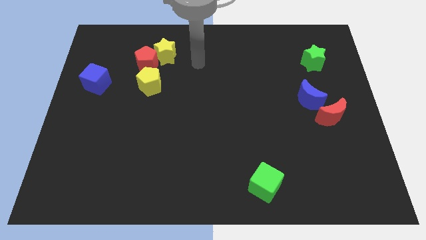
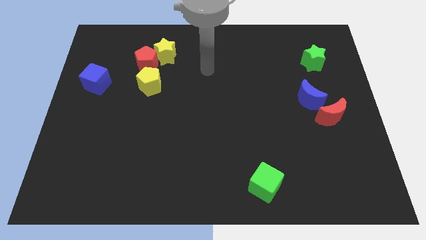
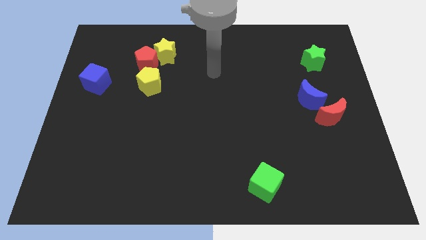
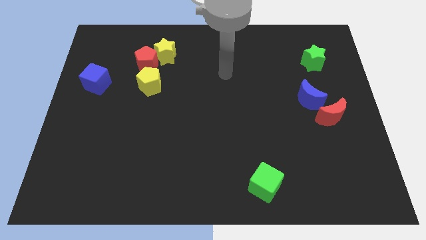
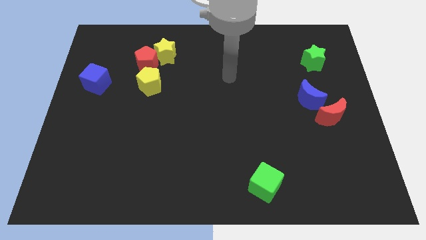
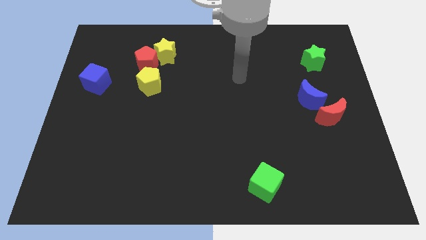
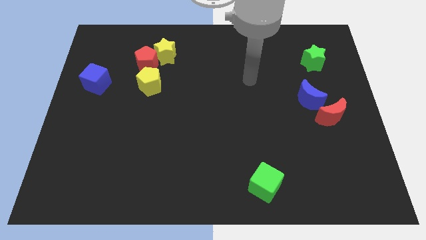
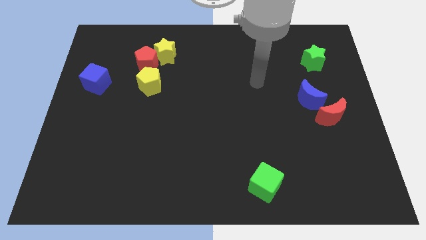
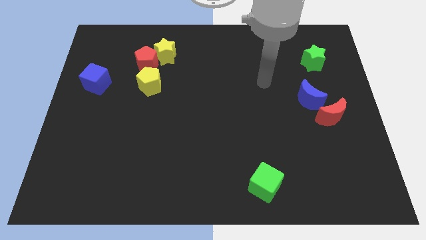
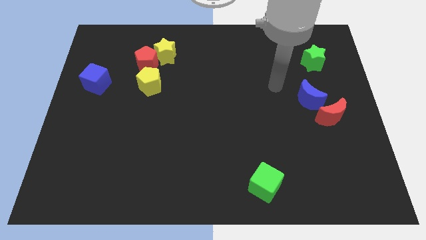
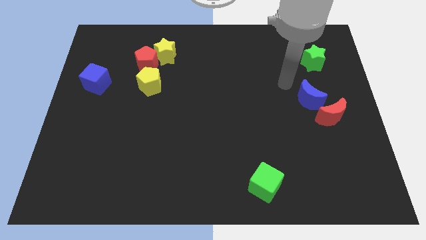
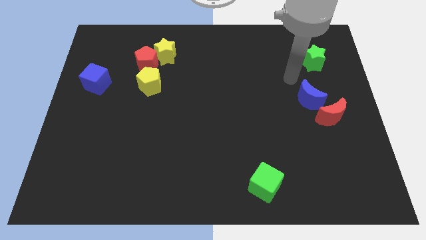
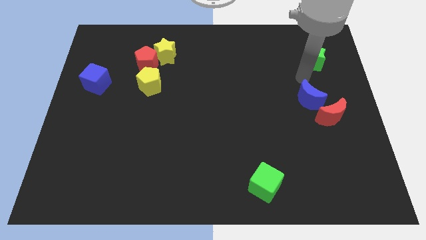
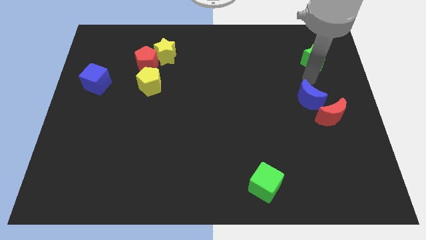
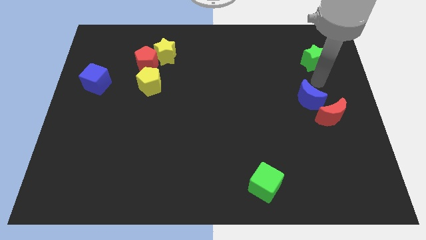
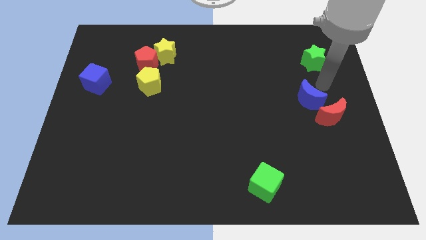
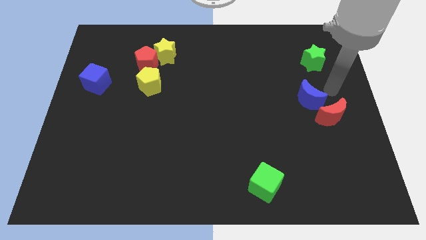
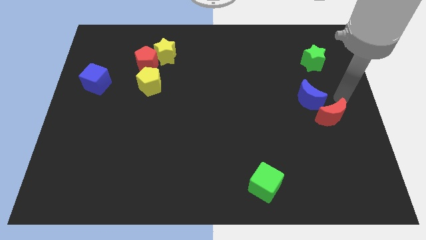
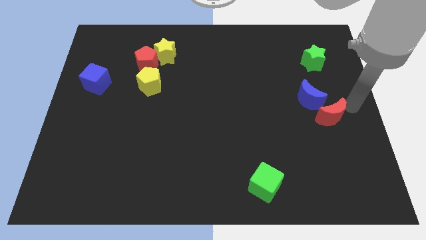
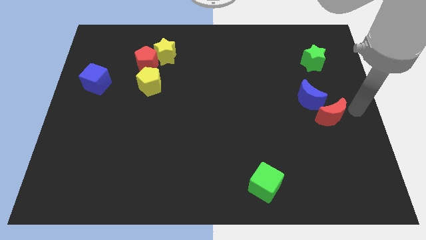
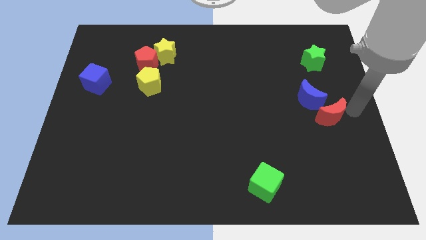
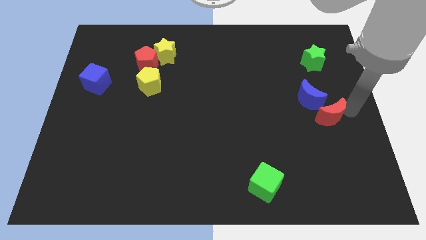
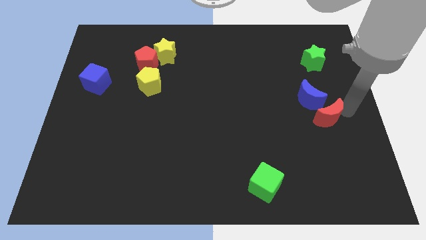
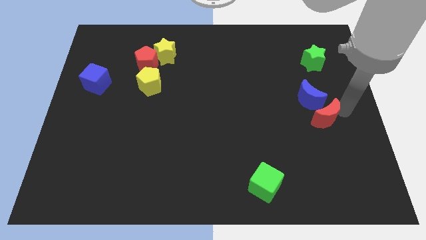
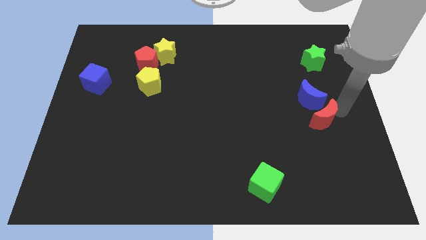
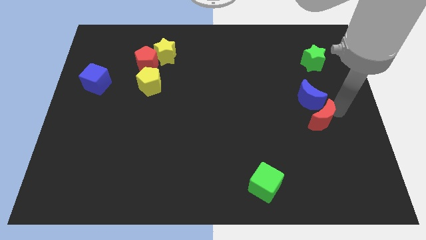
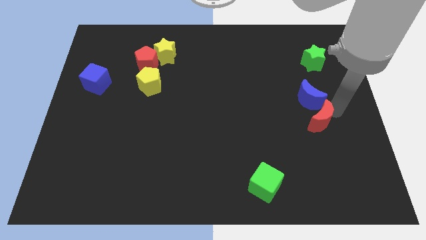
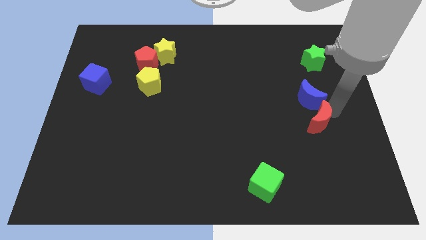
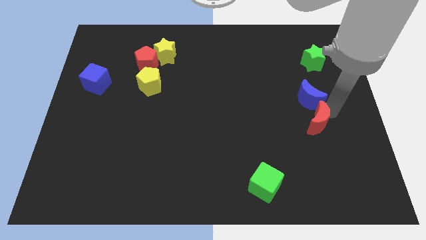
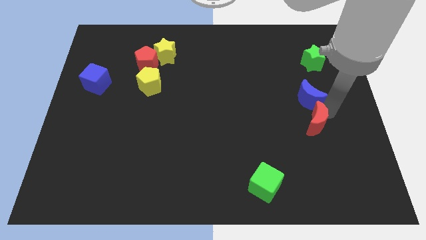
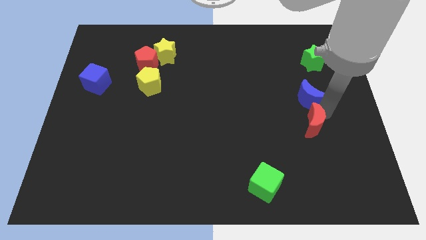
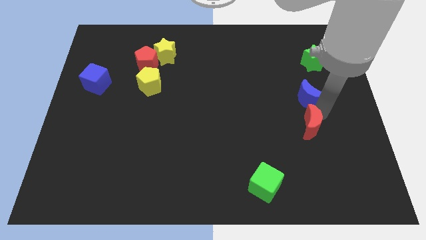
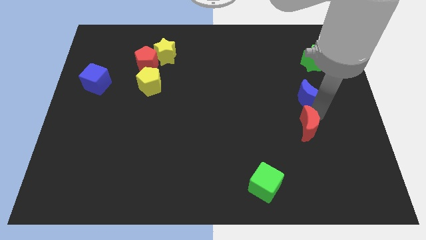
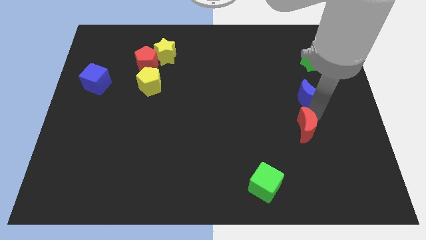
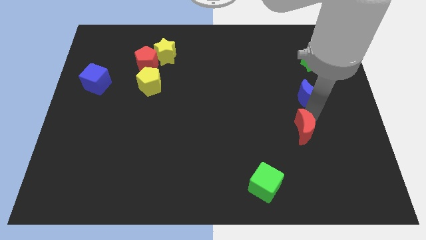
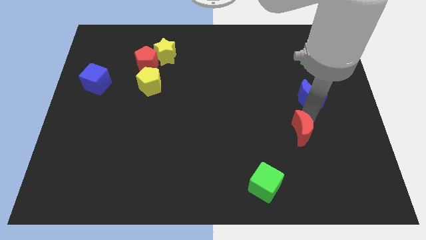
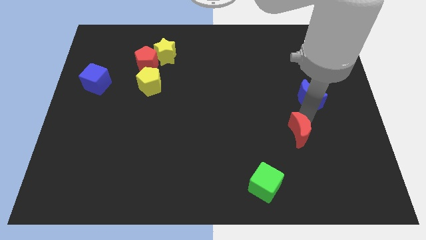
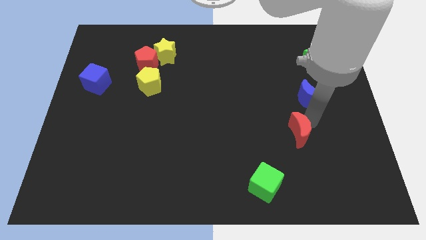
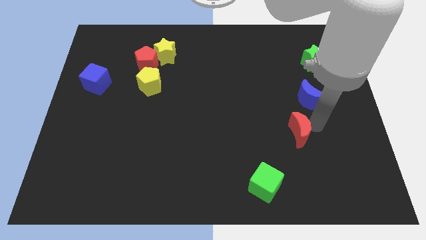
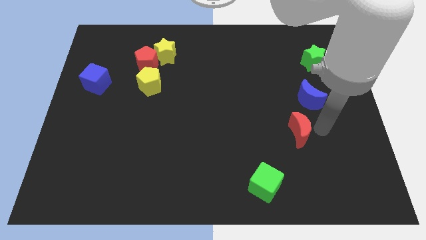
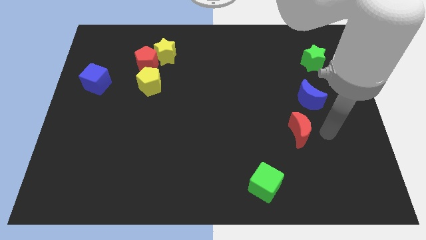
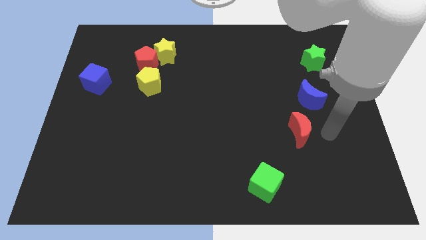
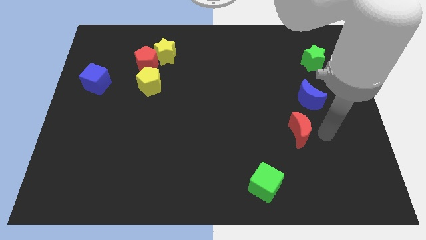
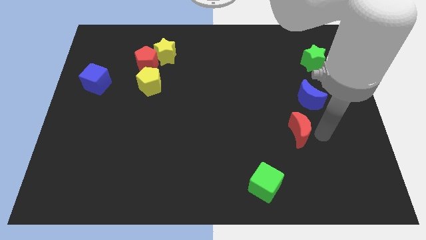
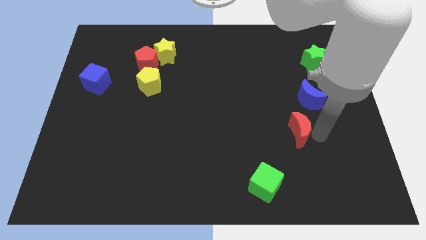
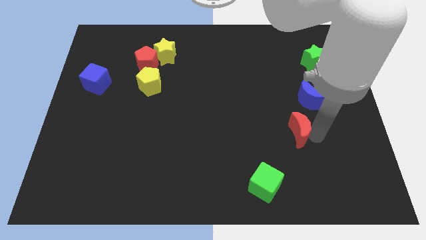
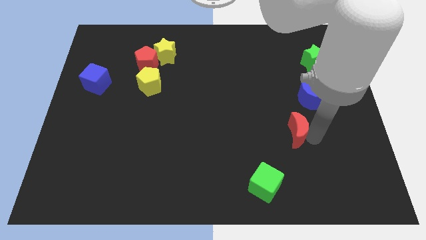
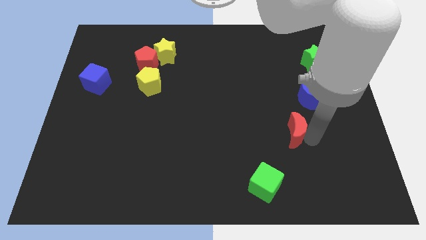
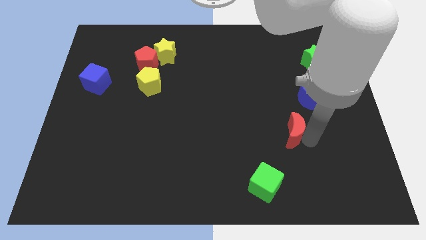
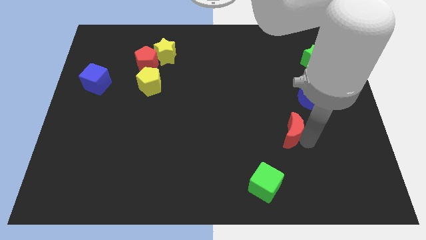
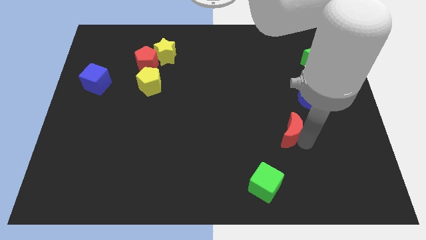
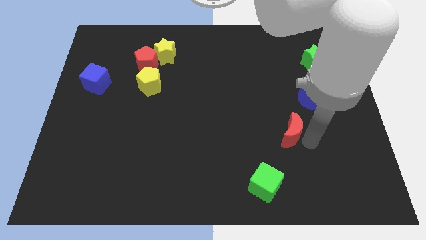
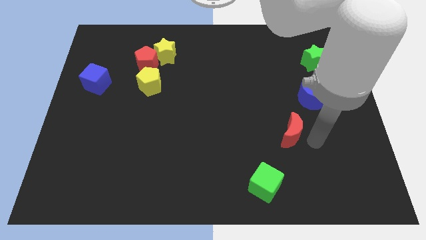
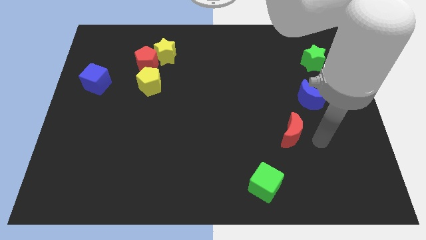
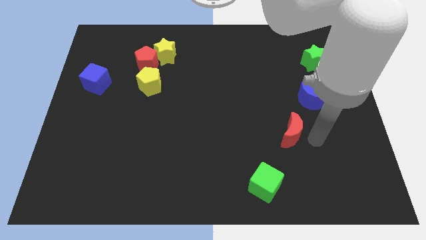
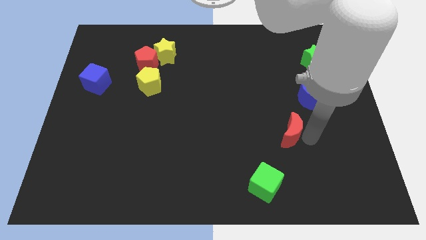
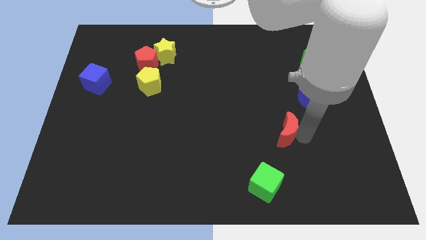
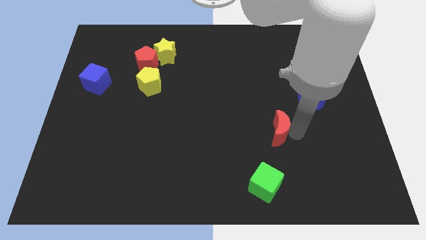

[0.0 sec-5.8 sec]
move the red moon to the top side of the green cube

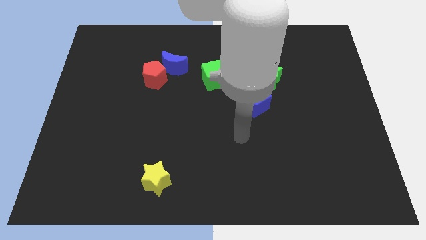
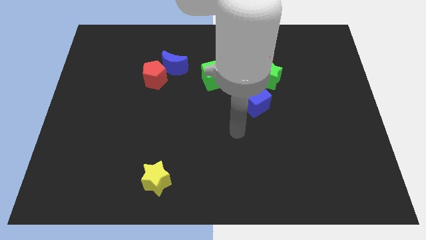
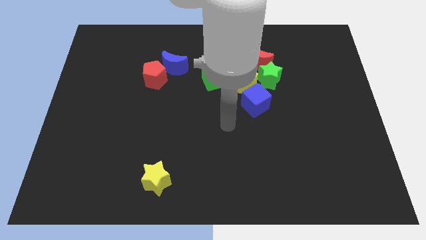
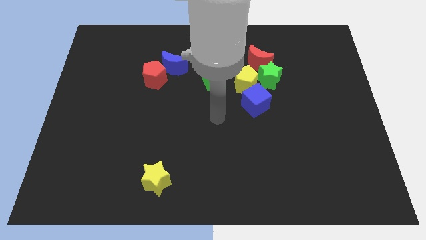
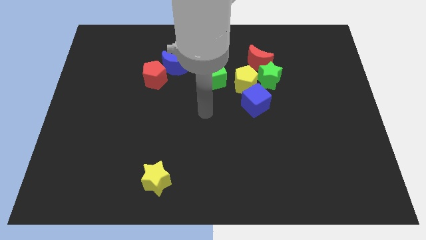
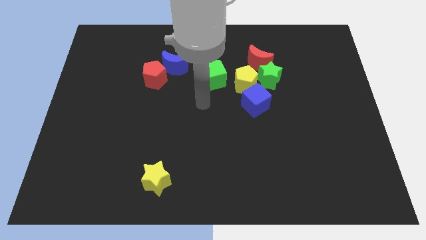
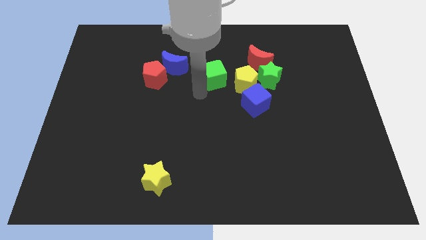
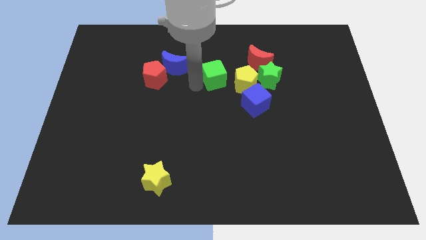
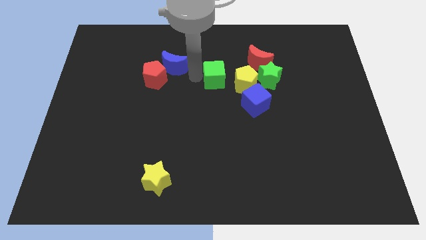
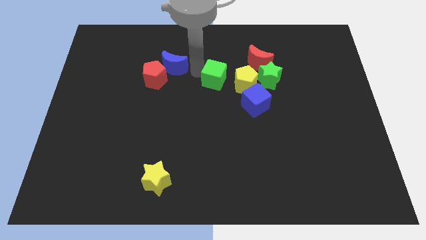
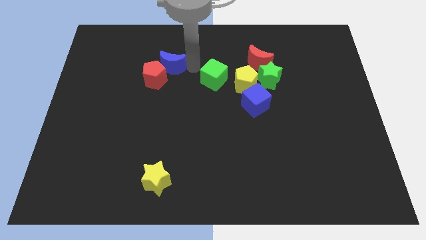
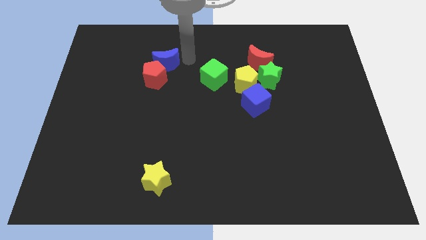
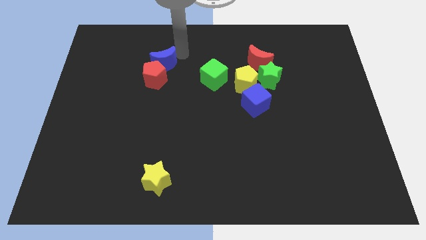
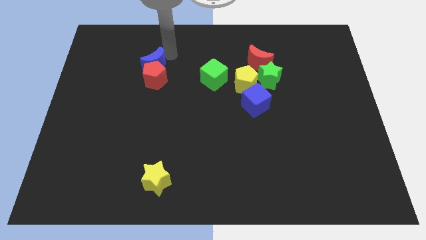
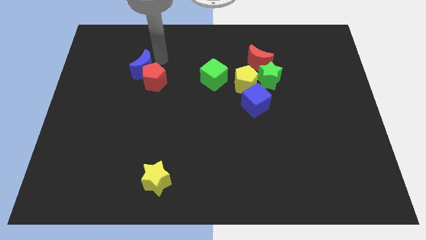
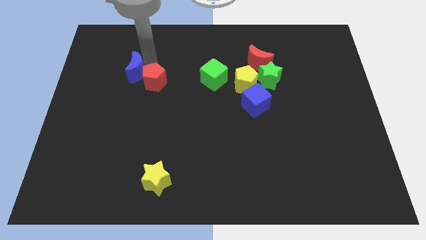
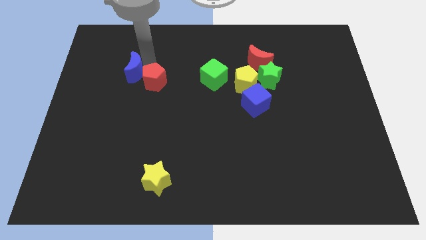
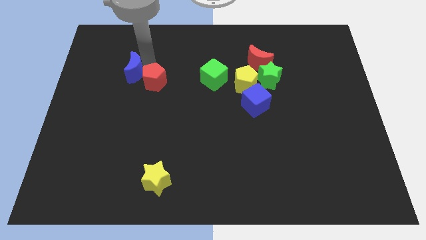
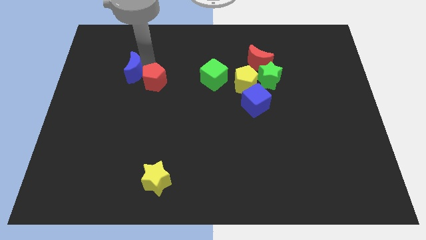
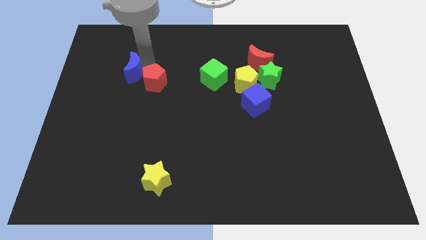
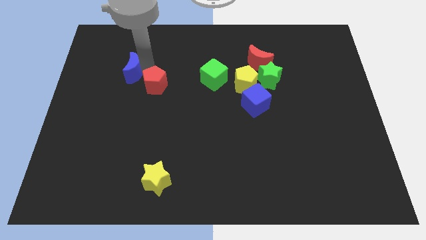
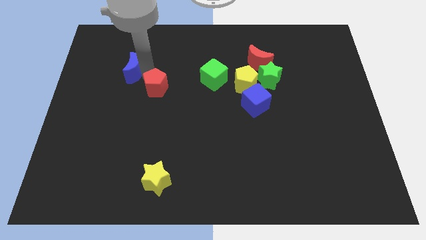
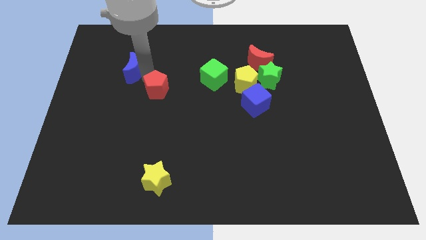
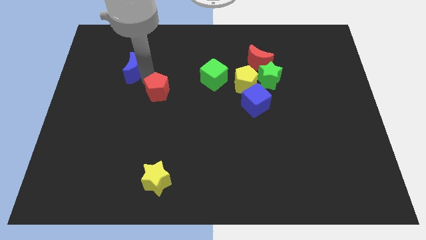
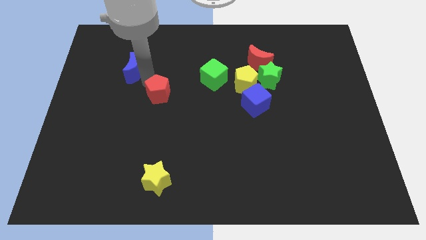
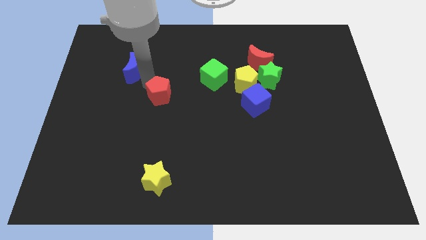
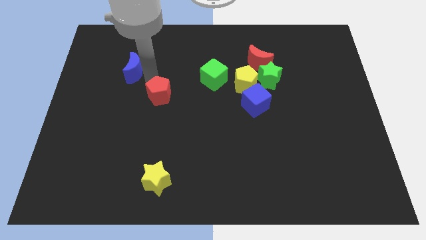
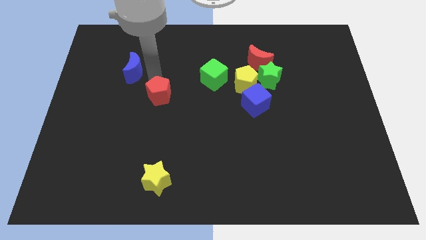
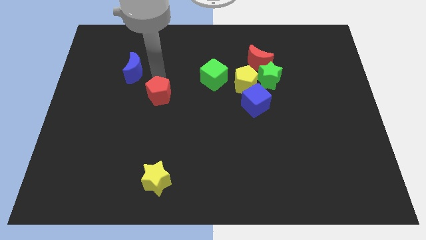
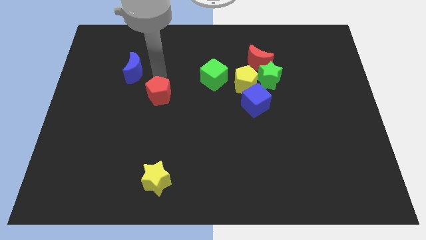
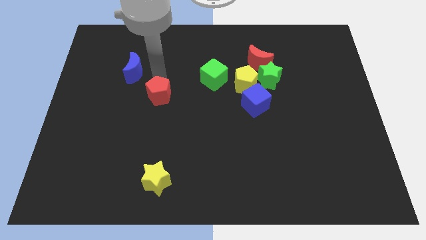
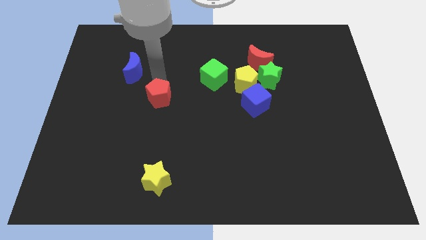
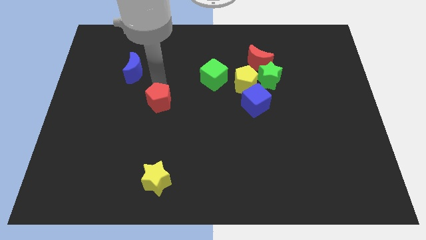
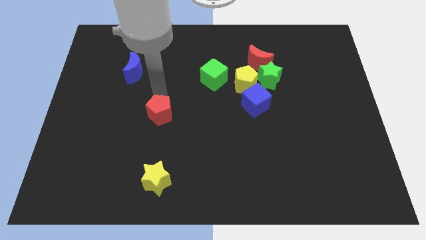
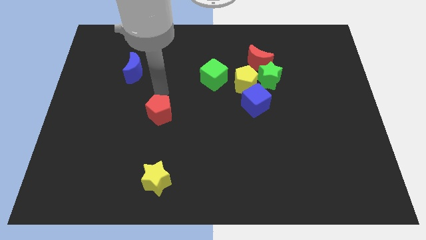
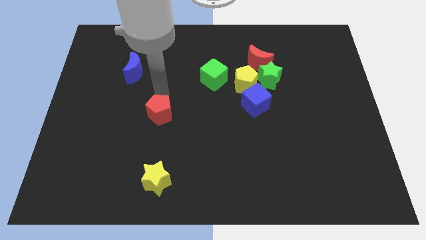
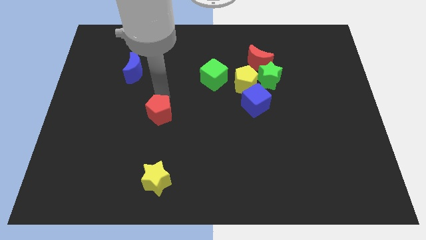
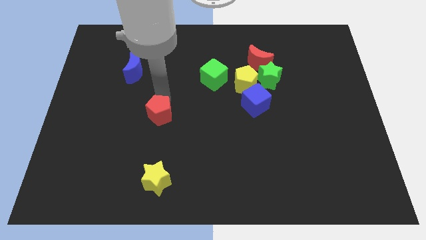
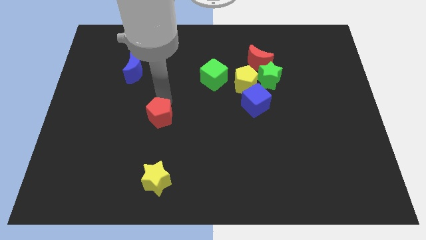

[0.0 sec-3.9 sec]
push the red pentagon to the top of the yellow star
